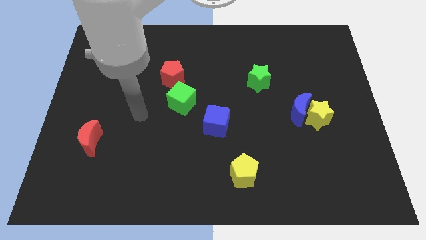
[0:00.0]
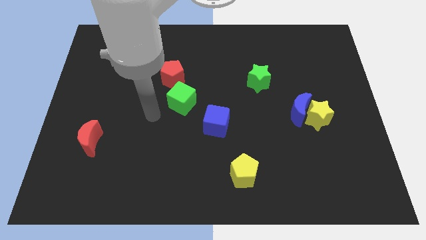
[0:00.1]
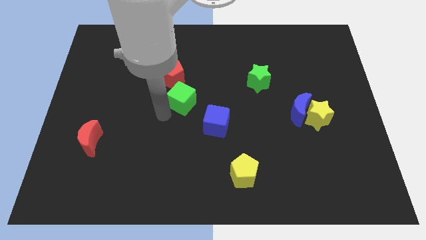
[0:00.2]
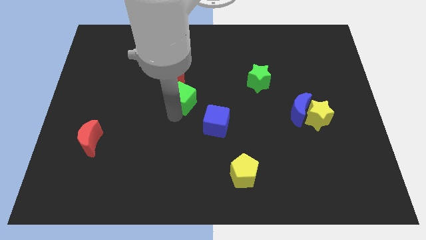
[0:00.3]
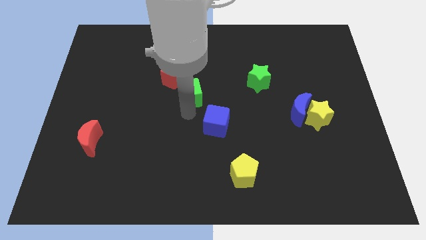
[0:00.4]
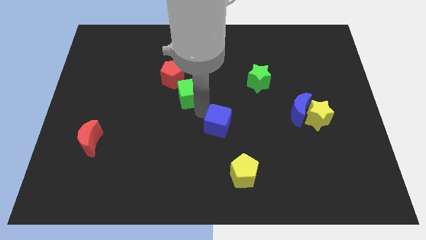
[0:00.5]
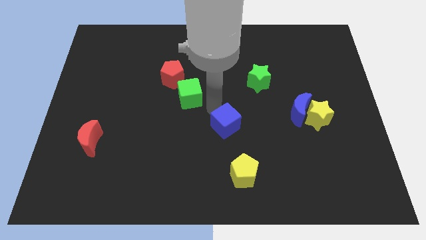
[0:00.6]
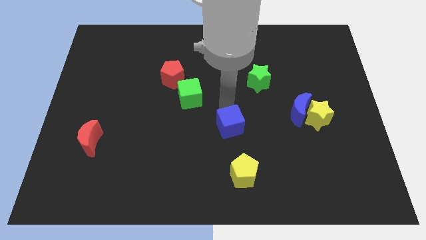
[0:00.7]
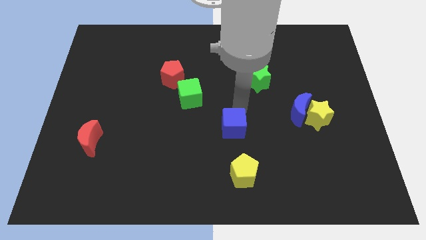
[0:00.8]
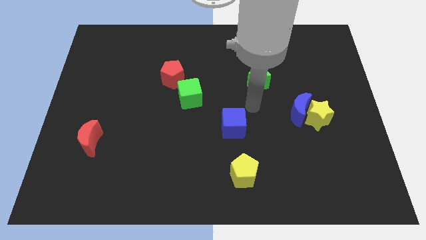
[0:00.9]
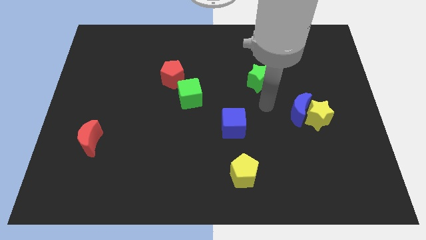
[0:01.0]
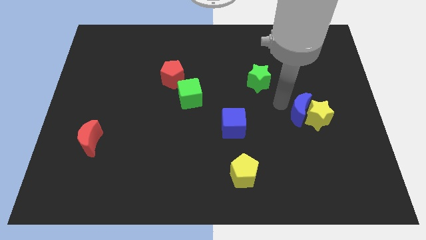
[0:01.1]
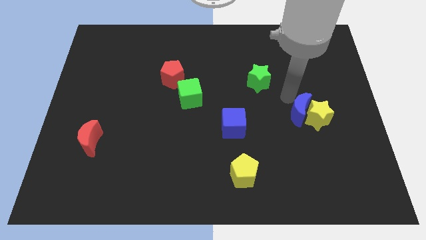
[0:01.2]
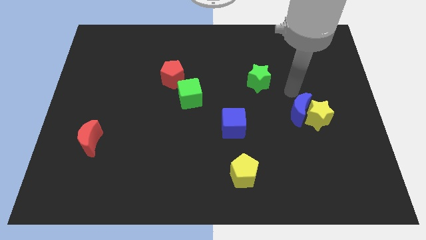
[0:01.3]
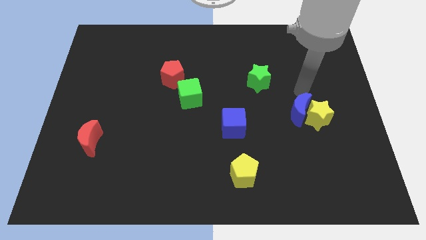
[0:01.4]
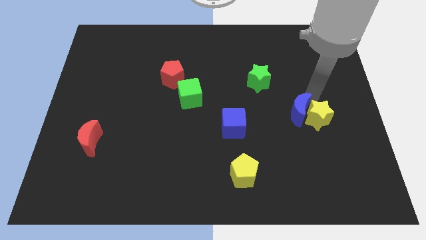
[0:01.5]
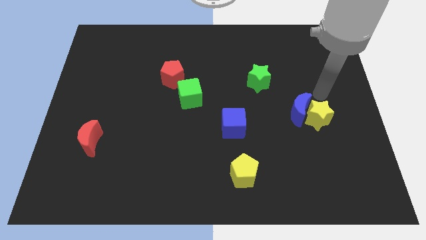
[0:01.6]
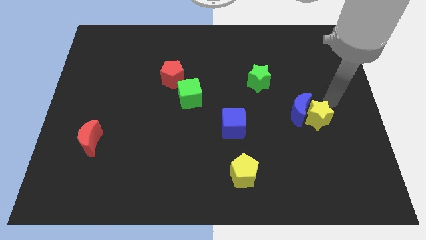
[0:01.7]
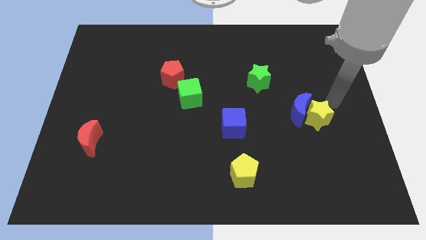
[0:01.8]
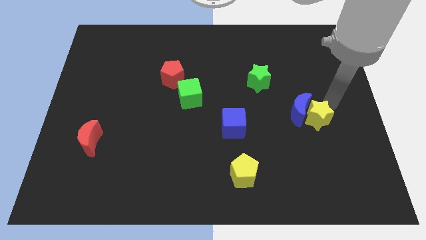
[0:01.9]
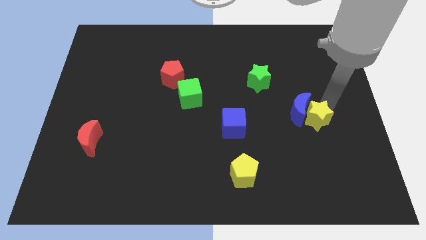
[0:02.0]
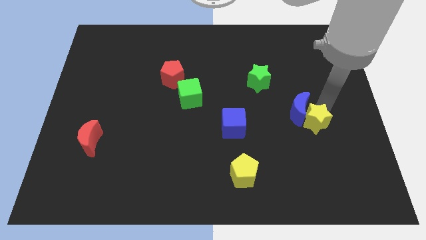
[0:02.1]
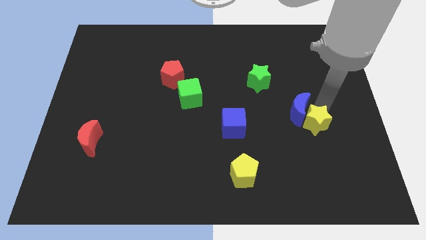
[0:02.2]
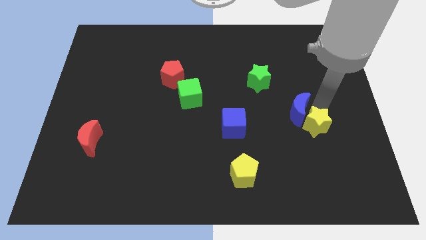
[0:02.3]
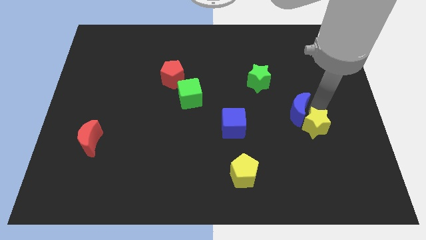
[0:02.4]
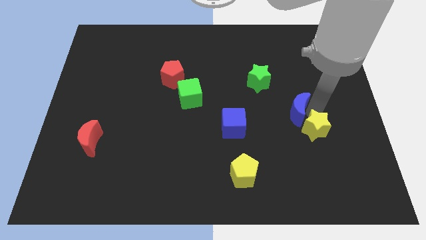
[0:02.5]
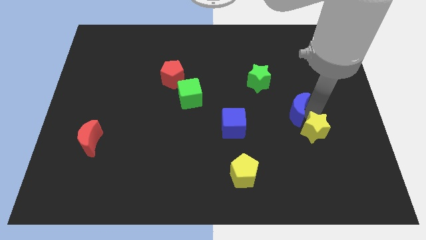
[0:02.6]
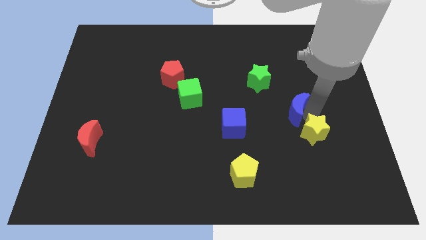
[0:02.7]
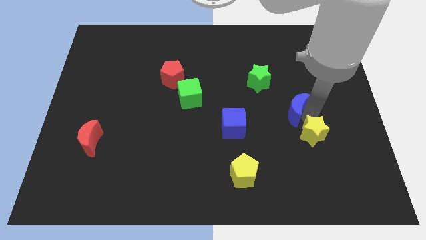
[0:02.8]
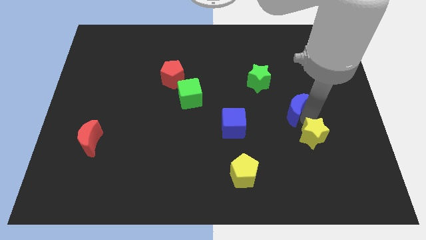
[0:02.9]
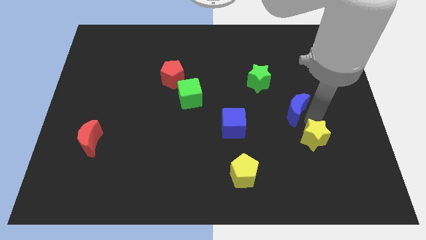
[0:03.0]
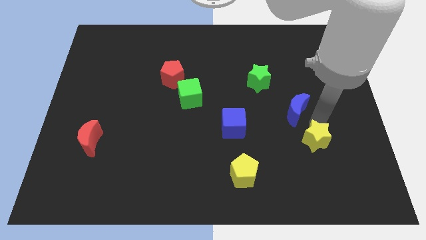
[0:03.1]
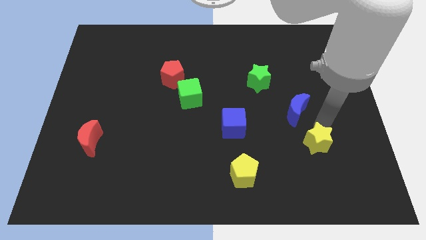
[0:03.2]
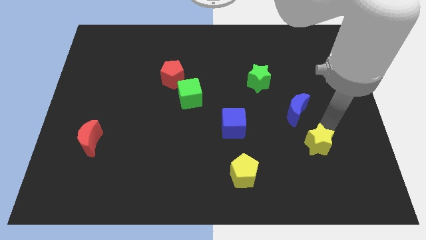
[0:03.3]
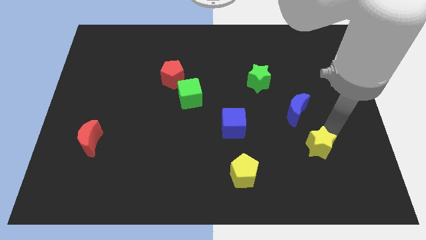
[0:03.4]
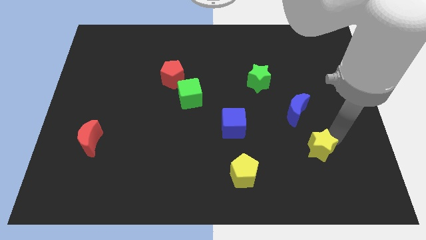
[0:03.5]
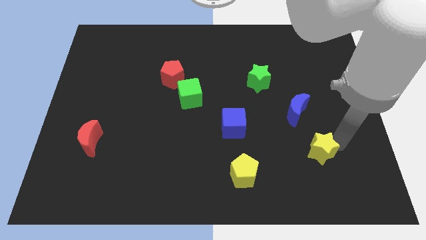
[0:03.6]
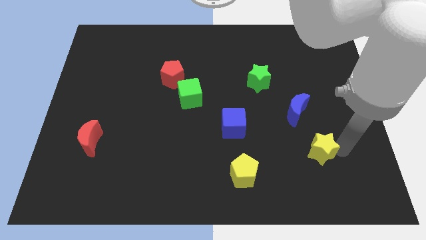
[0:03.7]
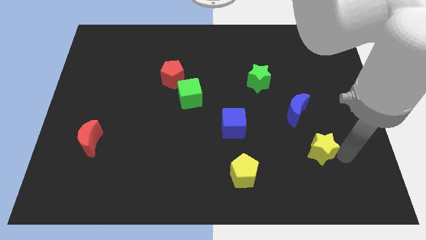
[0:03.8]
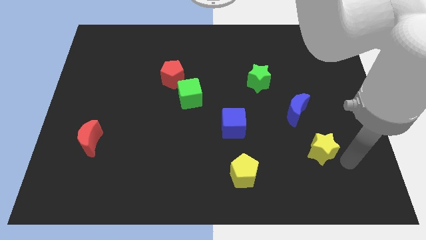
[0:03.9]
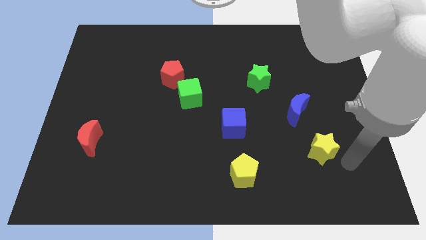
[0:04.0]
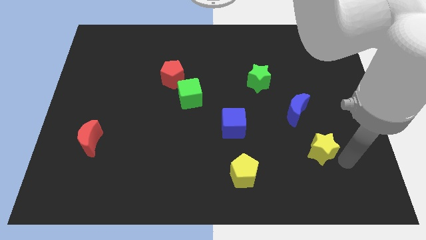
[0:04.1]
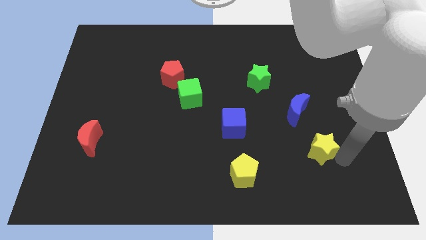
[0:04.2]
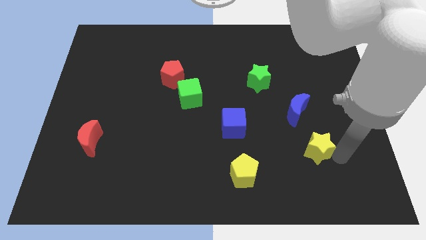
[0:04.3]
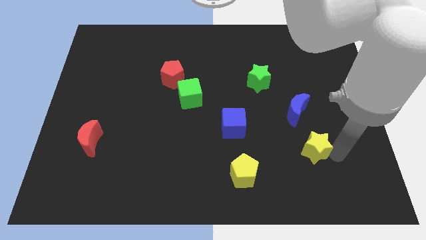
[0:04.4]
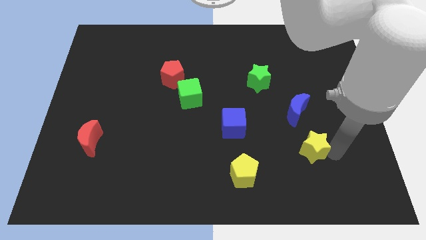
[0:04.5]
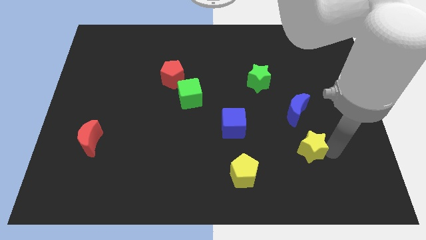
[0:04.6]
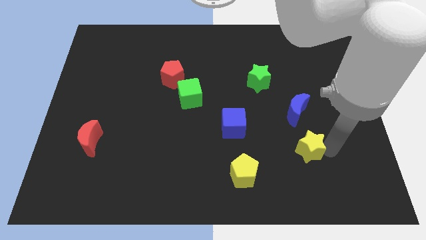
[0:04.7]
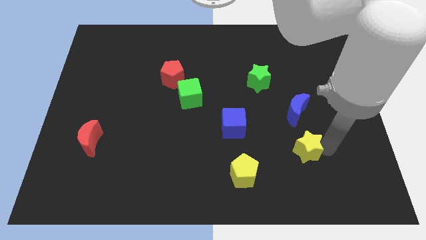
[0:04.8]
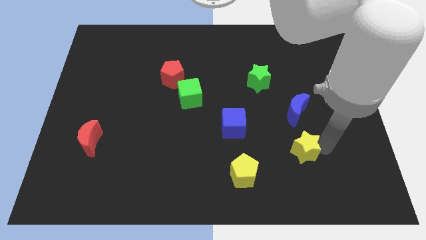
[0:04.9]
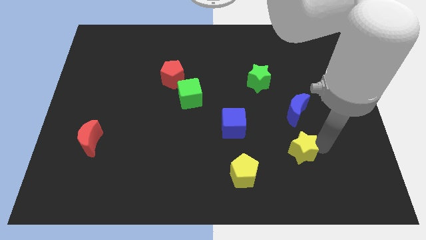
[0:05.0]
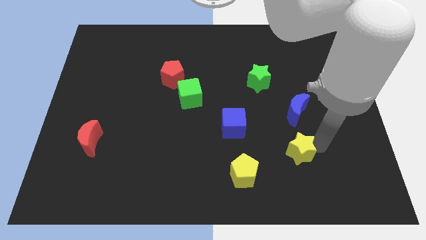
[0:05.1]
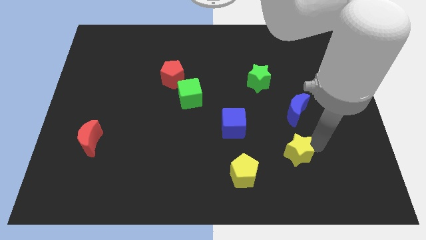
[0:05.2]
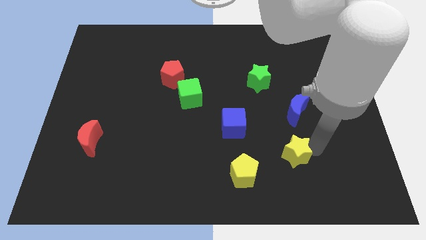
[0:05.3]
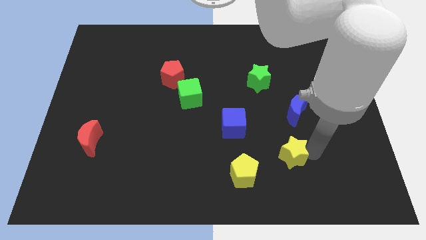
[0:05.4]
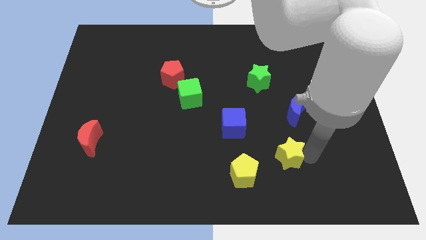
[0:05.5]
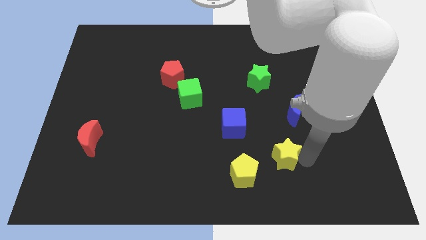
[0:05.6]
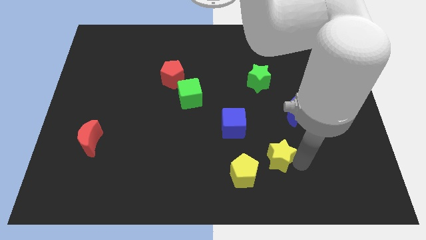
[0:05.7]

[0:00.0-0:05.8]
put the yellow star diagonally down and to the right of the blue cube

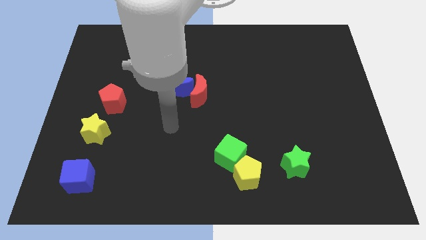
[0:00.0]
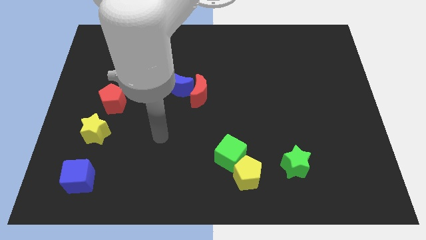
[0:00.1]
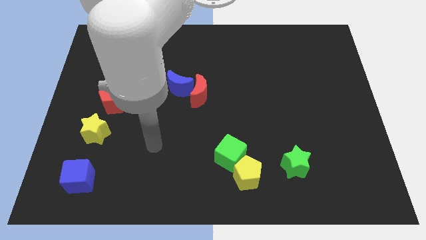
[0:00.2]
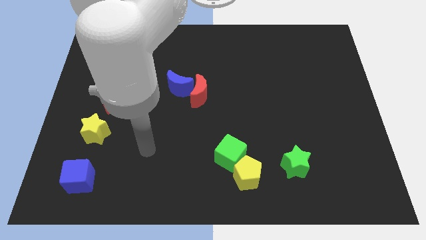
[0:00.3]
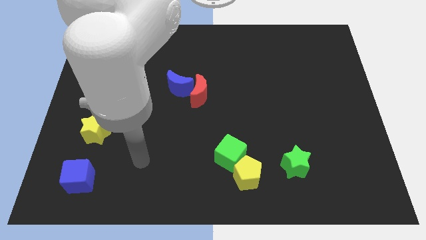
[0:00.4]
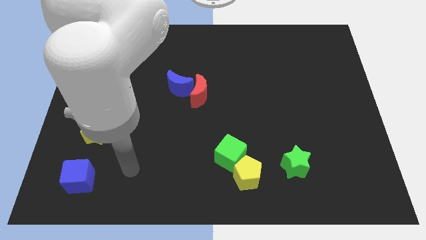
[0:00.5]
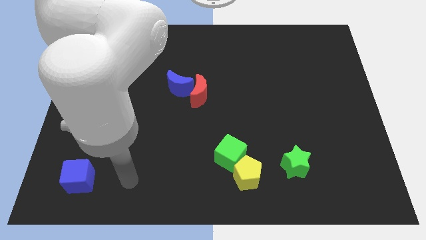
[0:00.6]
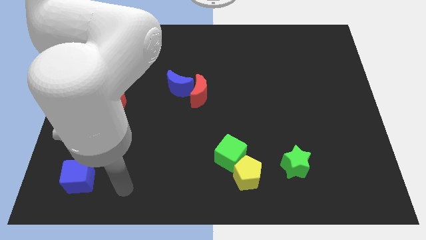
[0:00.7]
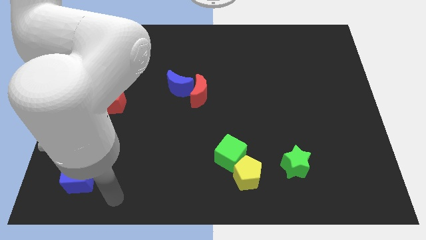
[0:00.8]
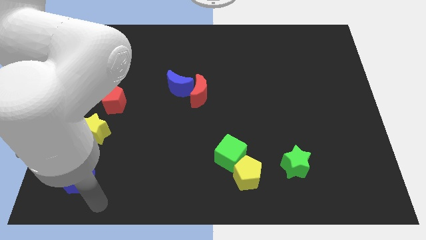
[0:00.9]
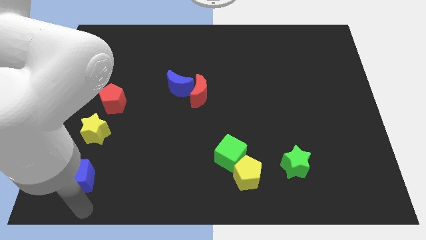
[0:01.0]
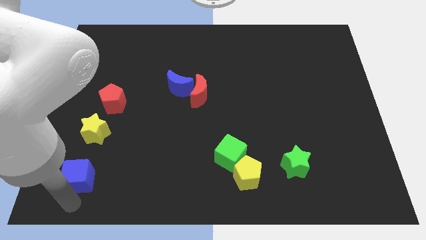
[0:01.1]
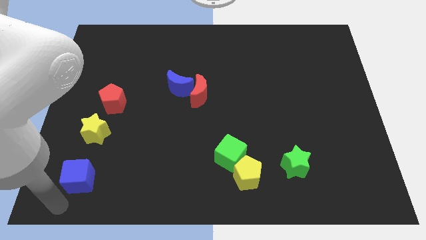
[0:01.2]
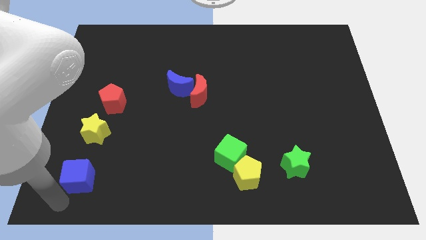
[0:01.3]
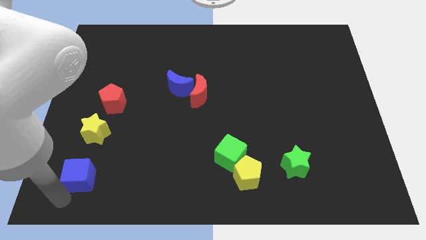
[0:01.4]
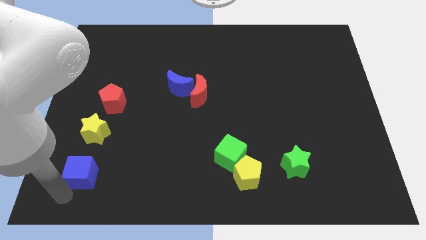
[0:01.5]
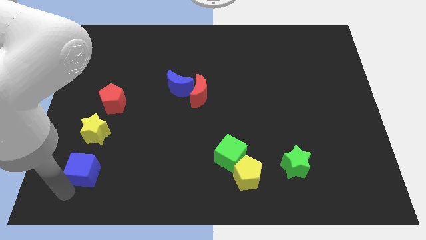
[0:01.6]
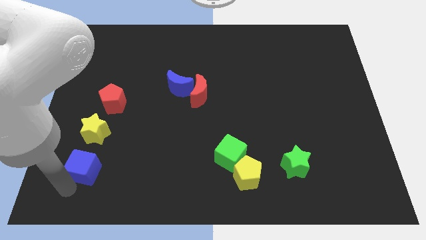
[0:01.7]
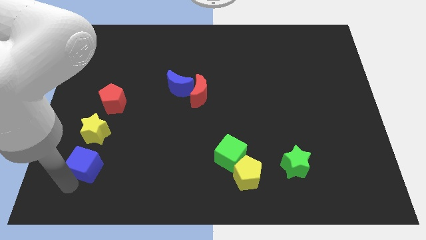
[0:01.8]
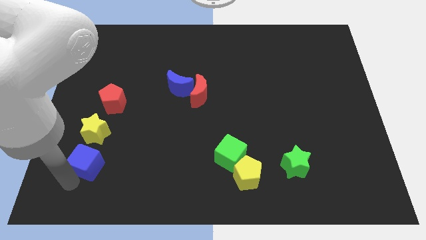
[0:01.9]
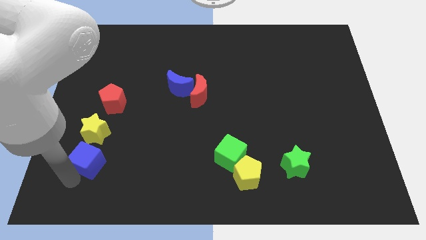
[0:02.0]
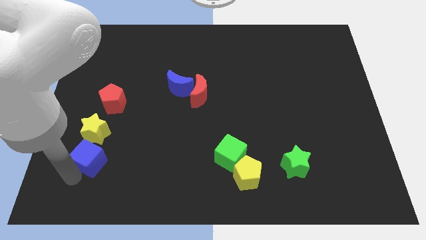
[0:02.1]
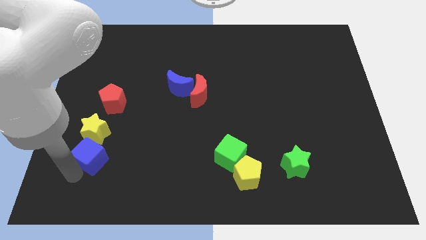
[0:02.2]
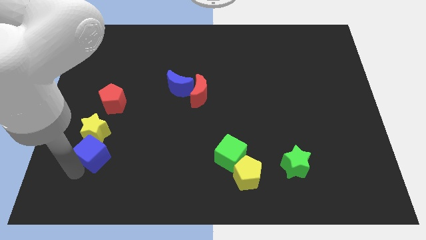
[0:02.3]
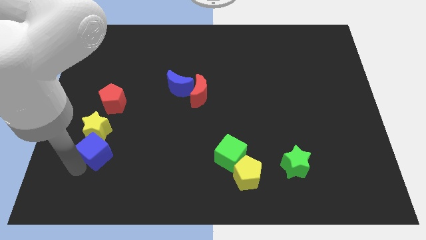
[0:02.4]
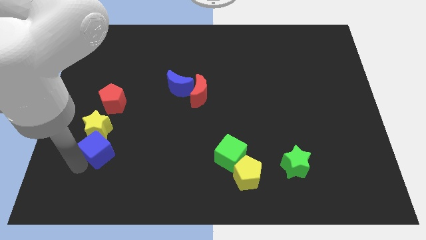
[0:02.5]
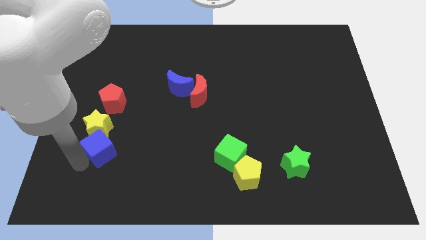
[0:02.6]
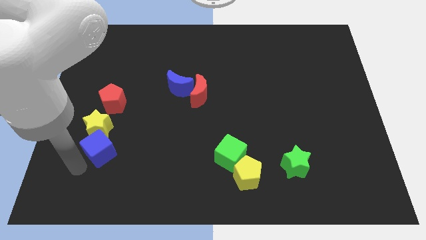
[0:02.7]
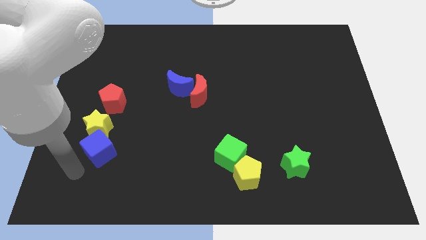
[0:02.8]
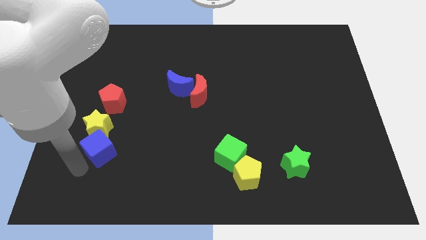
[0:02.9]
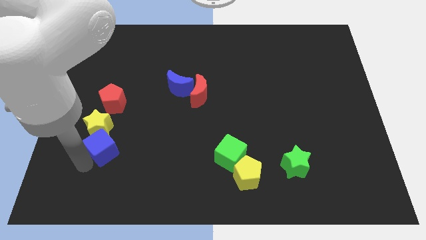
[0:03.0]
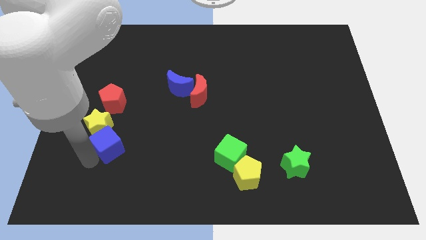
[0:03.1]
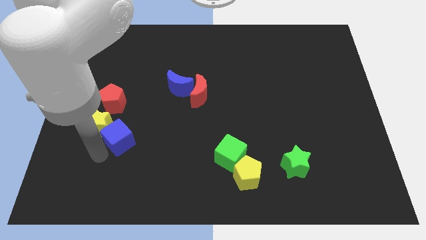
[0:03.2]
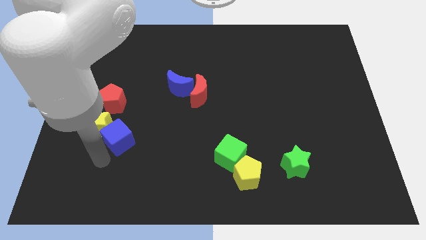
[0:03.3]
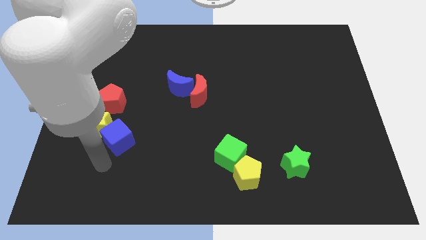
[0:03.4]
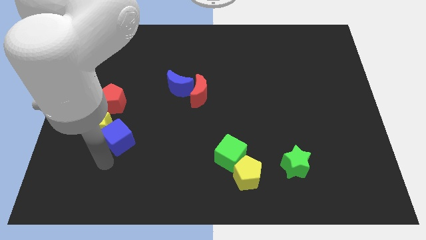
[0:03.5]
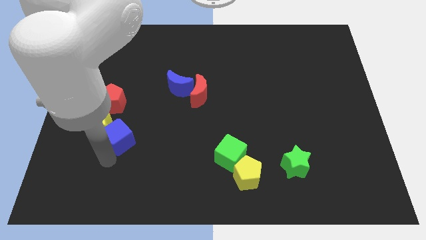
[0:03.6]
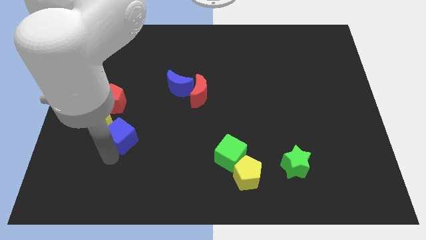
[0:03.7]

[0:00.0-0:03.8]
move the blue cube diagonally down and to the right of the red pentagon
